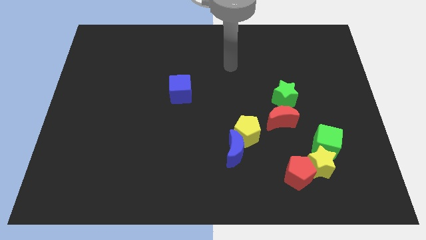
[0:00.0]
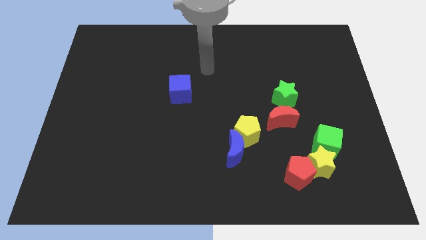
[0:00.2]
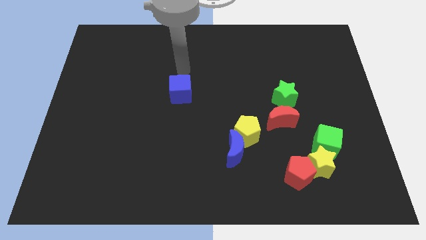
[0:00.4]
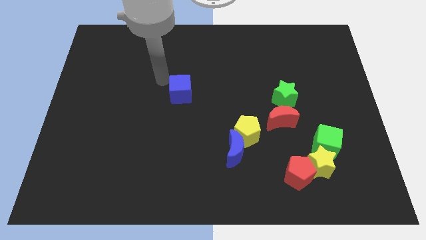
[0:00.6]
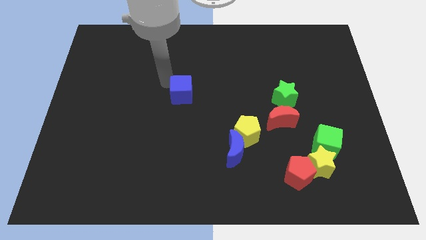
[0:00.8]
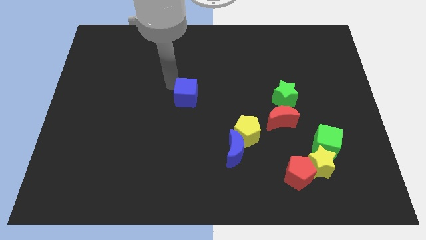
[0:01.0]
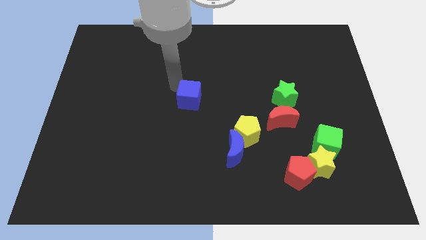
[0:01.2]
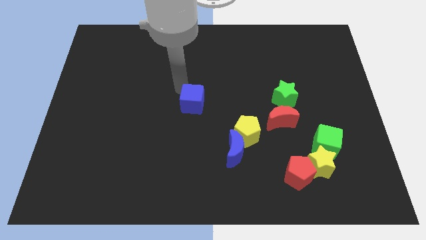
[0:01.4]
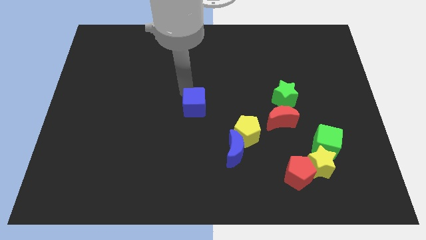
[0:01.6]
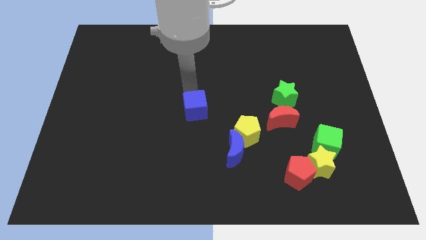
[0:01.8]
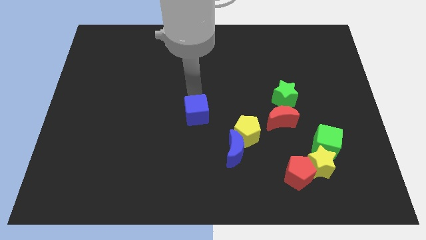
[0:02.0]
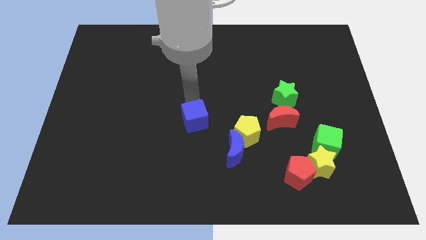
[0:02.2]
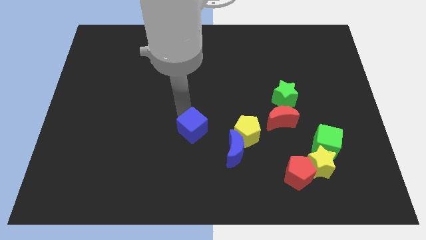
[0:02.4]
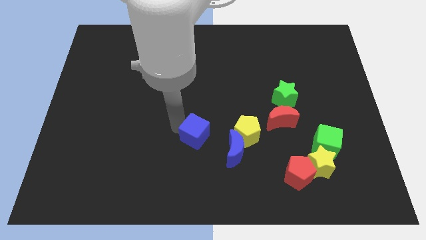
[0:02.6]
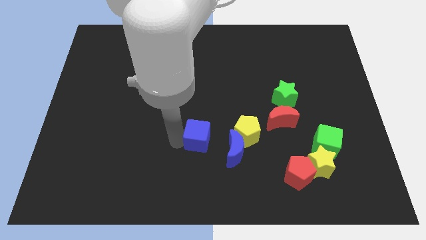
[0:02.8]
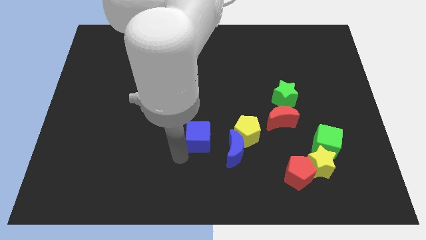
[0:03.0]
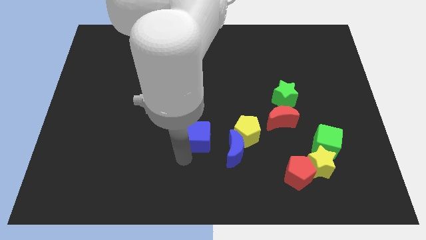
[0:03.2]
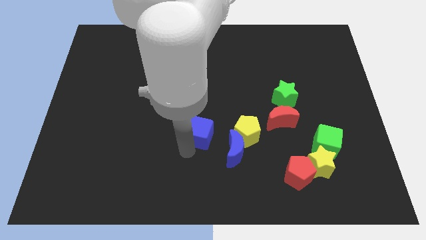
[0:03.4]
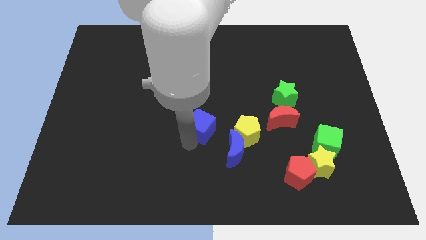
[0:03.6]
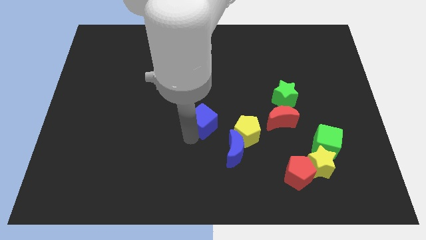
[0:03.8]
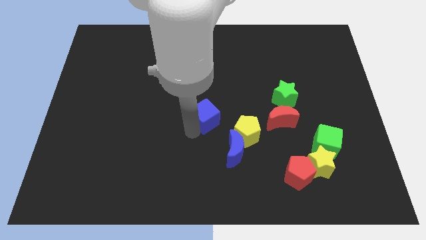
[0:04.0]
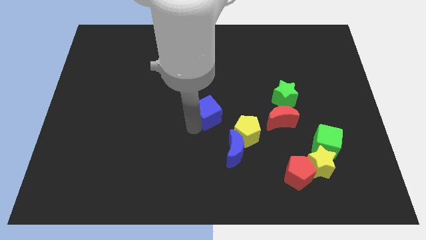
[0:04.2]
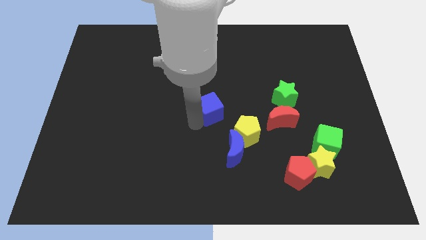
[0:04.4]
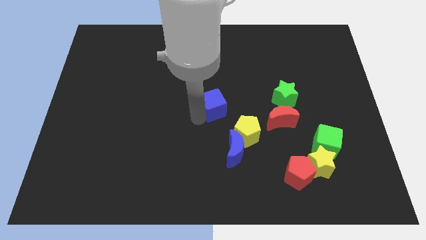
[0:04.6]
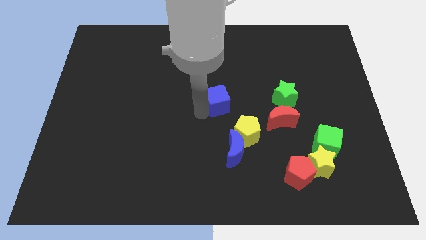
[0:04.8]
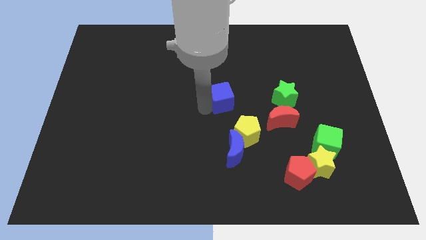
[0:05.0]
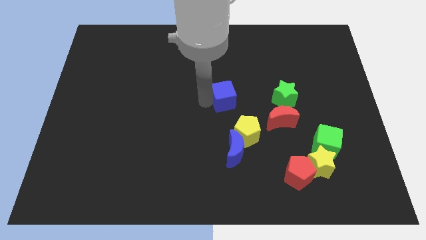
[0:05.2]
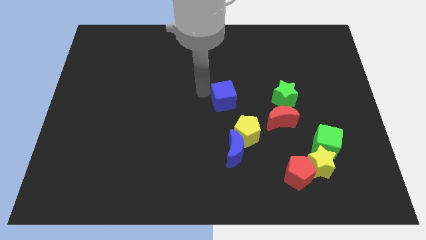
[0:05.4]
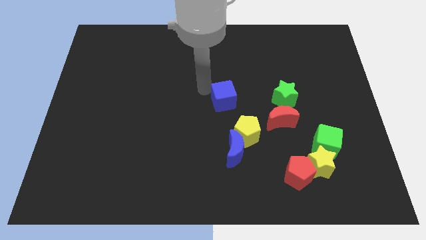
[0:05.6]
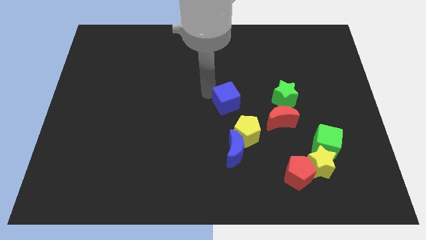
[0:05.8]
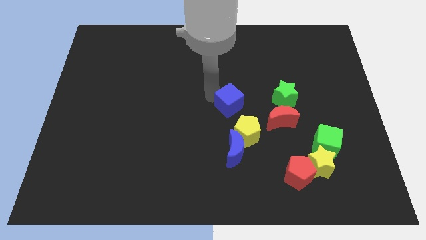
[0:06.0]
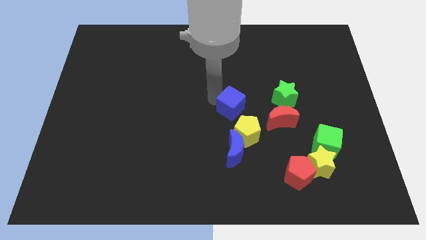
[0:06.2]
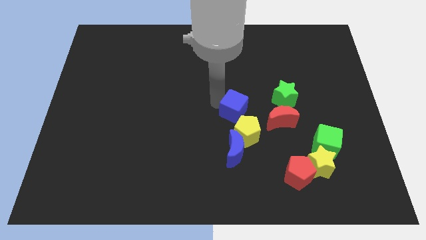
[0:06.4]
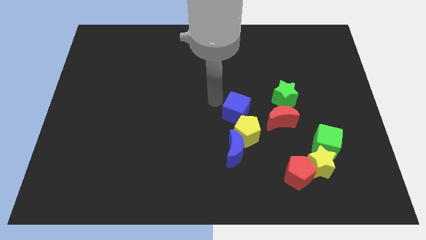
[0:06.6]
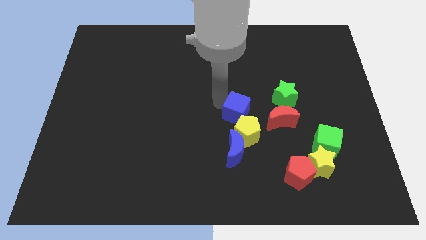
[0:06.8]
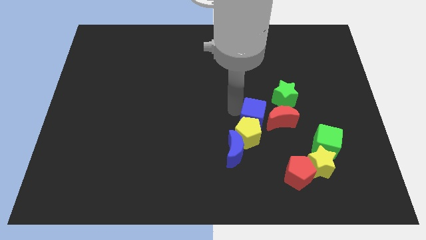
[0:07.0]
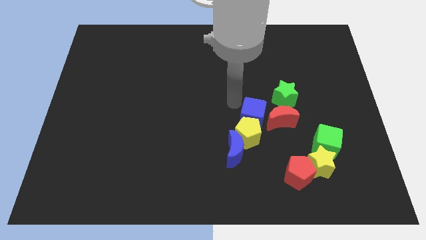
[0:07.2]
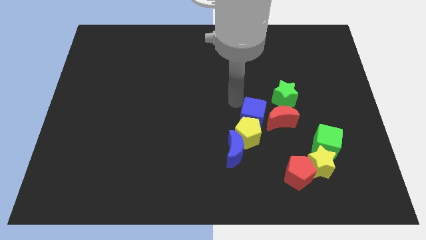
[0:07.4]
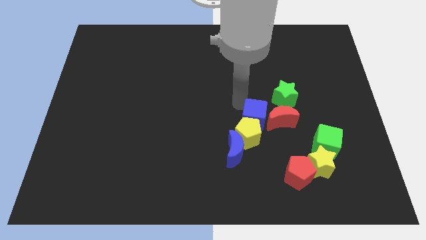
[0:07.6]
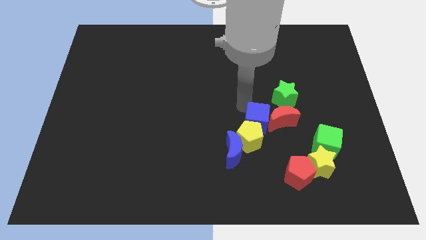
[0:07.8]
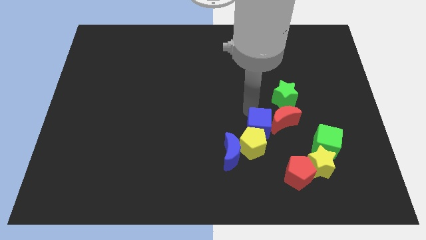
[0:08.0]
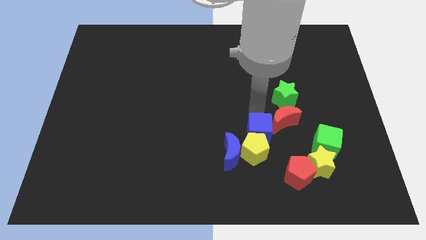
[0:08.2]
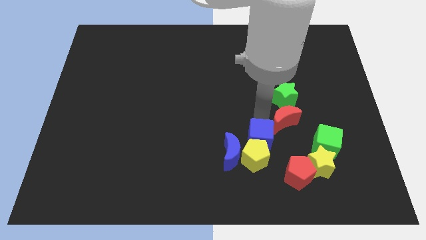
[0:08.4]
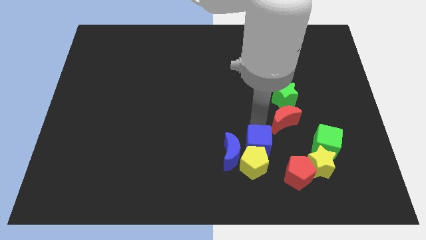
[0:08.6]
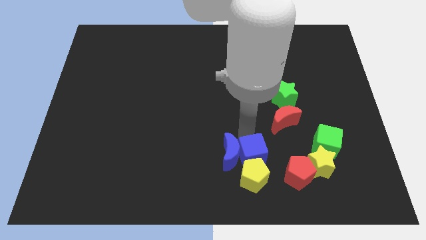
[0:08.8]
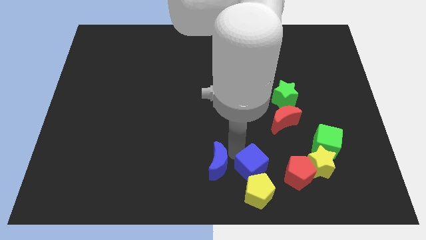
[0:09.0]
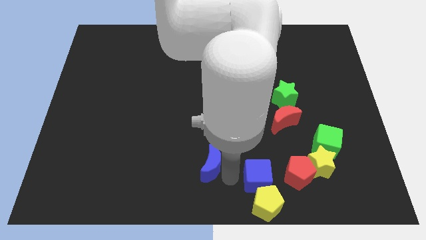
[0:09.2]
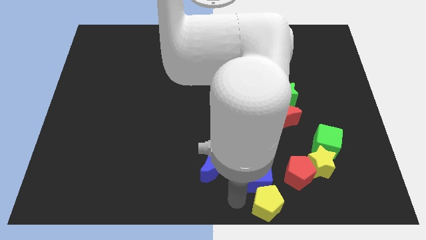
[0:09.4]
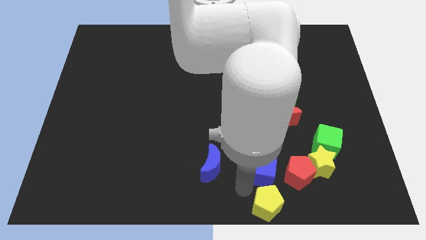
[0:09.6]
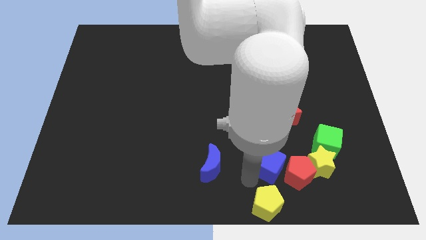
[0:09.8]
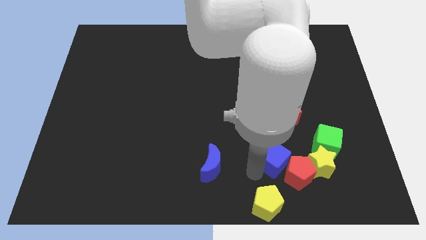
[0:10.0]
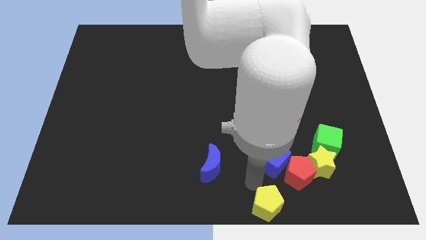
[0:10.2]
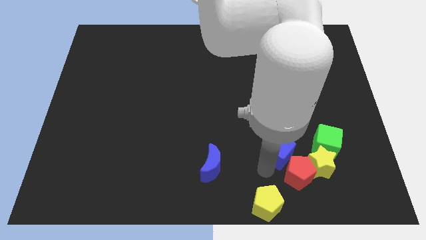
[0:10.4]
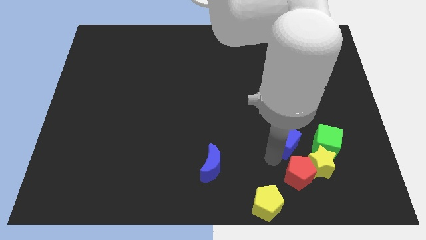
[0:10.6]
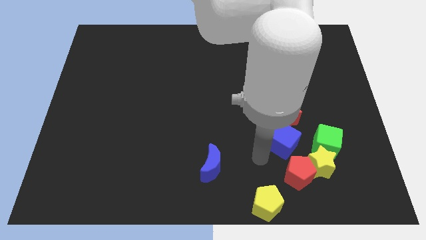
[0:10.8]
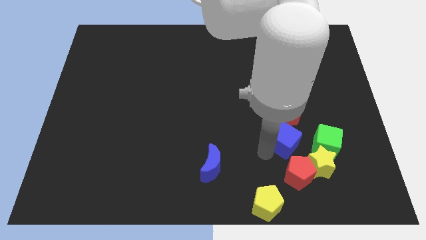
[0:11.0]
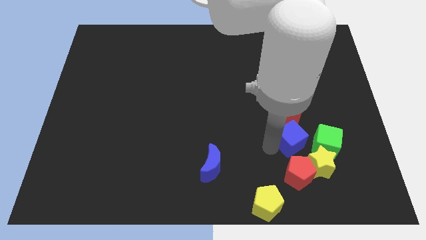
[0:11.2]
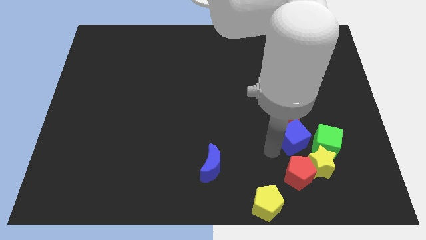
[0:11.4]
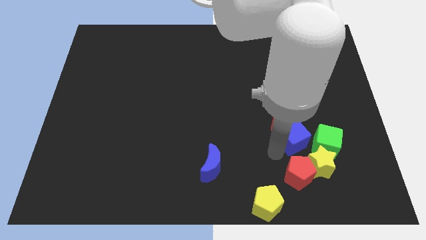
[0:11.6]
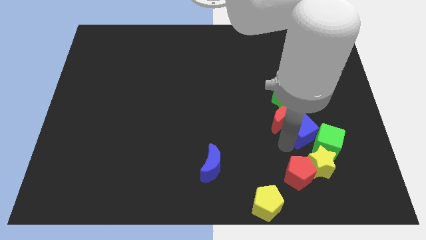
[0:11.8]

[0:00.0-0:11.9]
move the blue cube just right of the red moon
